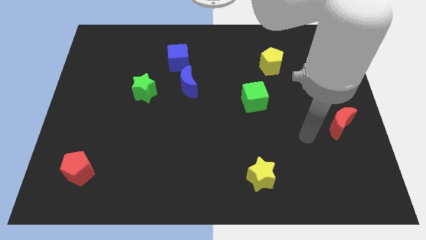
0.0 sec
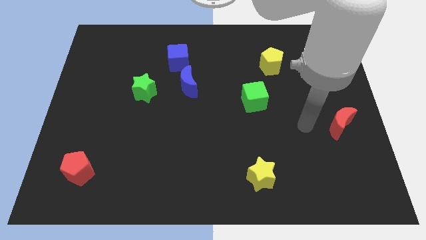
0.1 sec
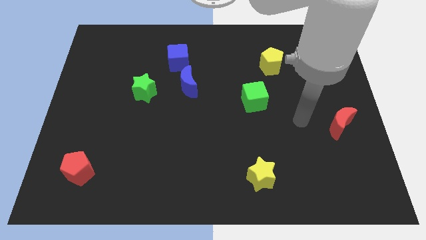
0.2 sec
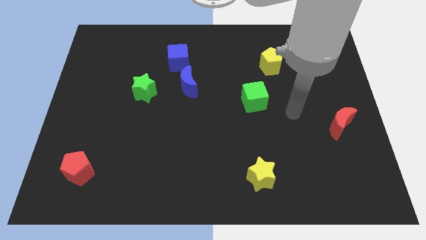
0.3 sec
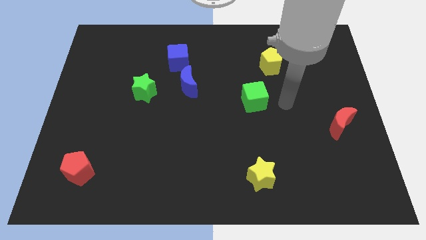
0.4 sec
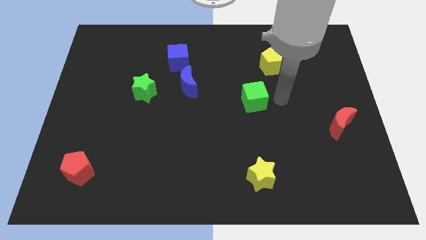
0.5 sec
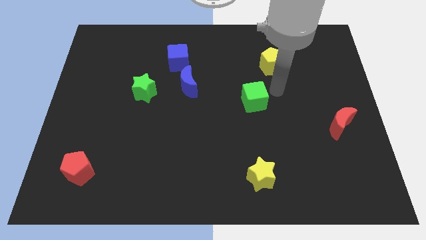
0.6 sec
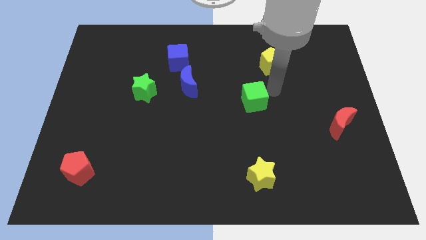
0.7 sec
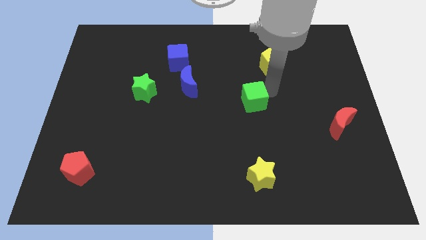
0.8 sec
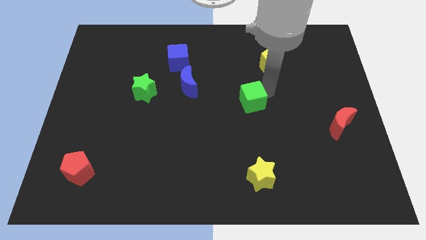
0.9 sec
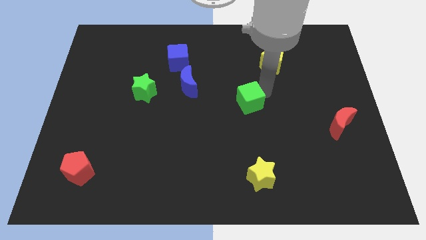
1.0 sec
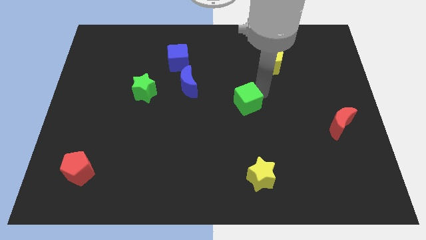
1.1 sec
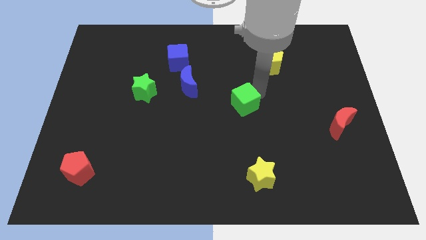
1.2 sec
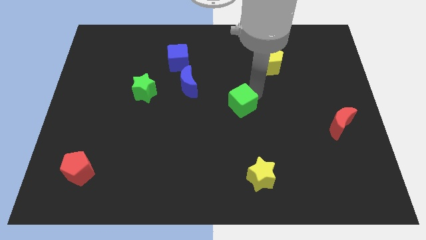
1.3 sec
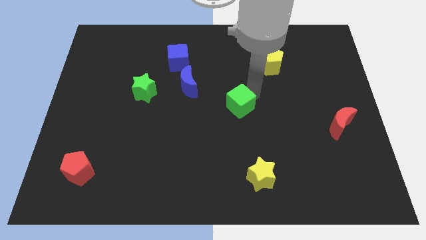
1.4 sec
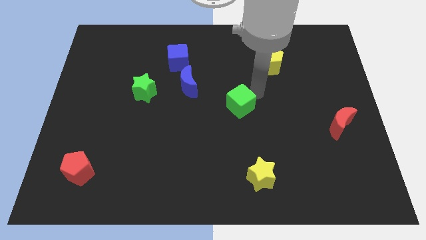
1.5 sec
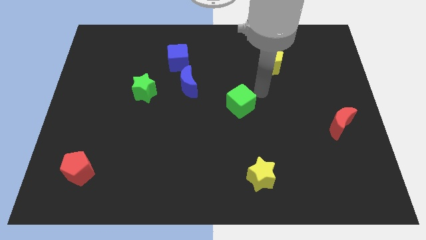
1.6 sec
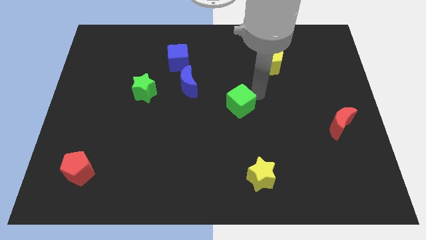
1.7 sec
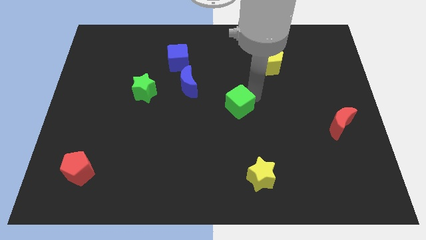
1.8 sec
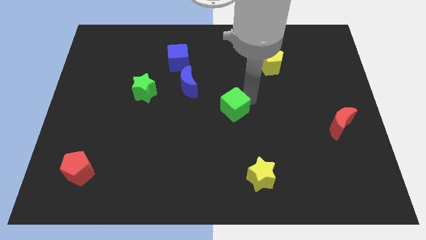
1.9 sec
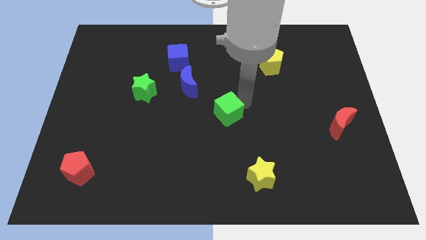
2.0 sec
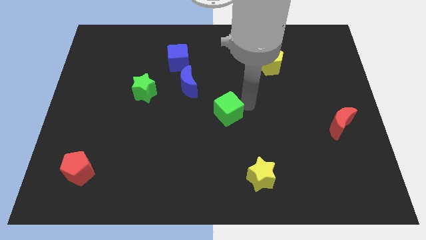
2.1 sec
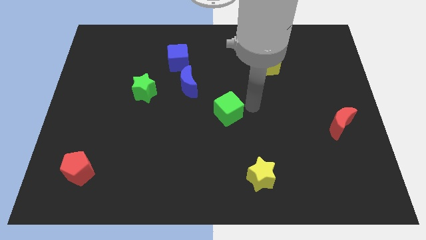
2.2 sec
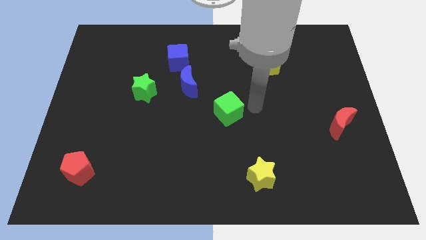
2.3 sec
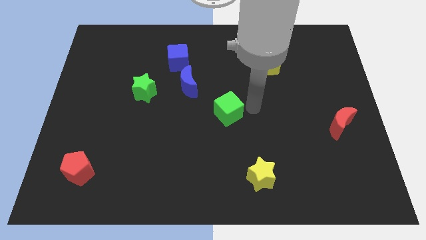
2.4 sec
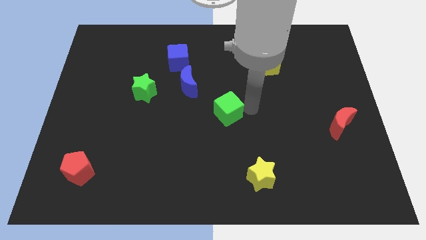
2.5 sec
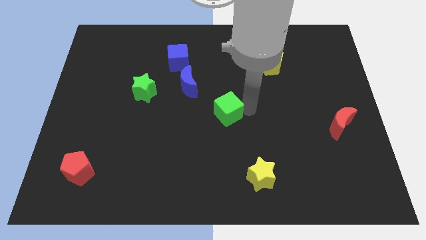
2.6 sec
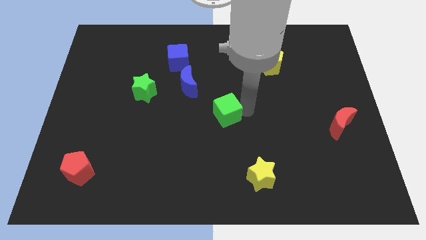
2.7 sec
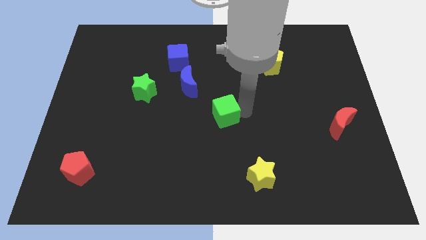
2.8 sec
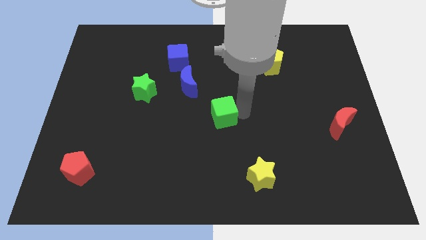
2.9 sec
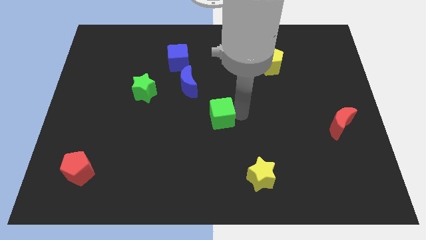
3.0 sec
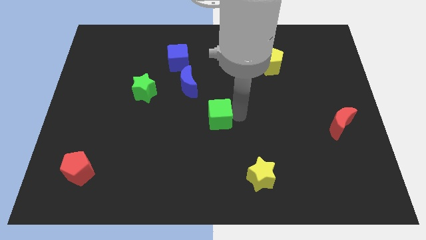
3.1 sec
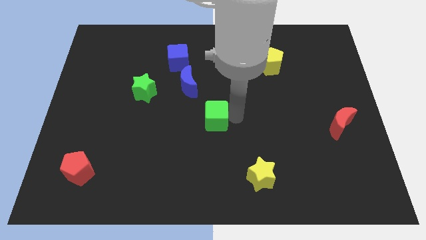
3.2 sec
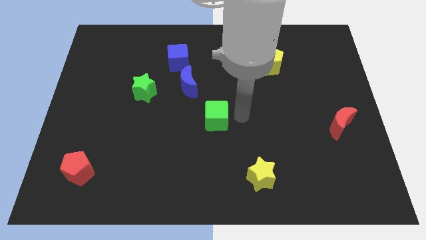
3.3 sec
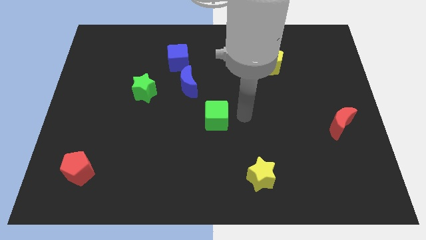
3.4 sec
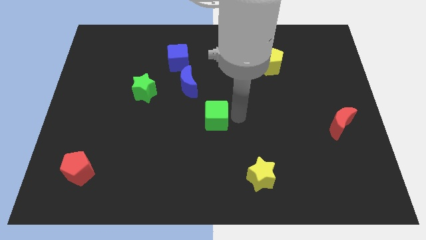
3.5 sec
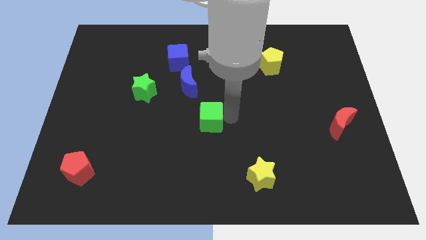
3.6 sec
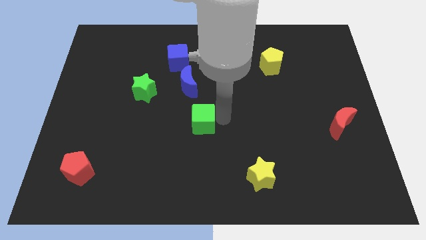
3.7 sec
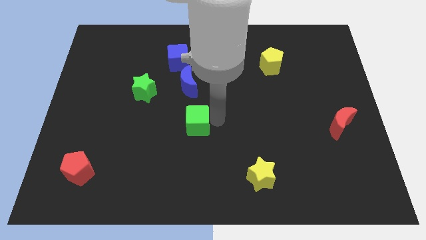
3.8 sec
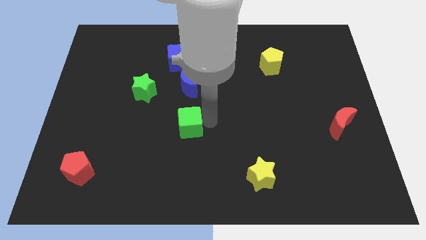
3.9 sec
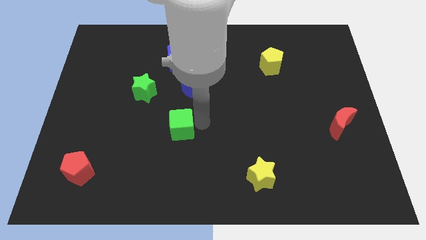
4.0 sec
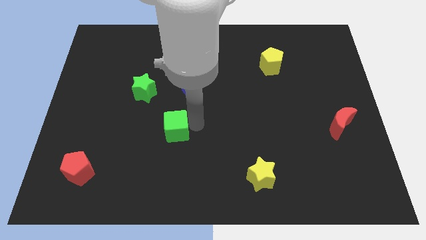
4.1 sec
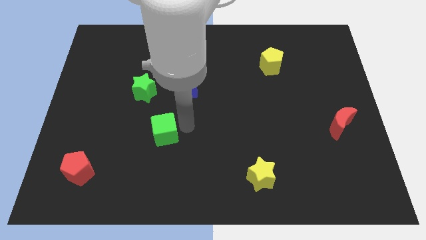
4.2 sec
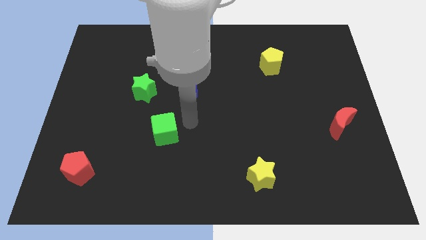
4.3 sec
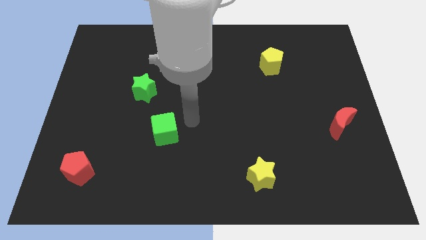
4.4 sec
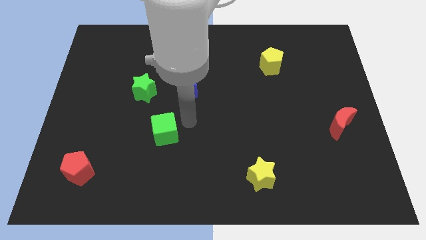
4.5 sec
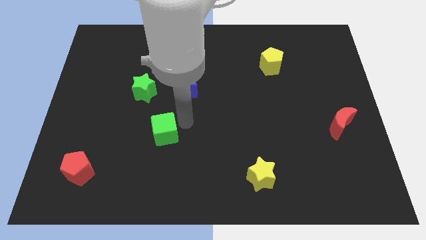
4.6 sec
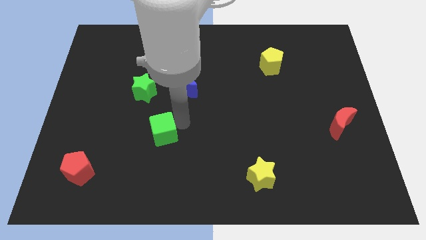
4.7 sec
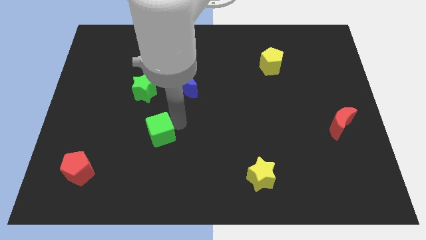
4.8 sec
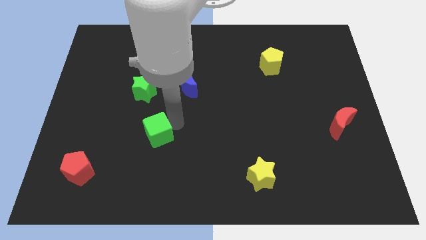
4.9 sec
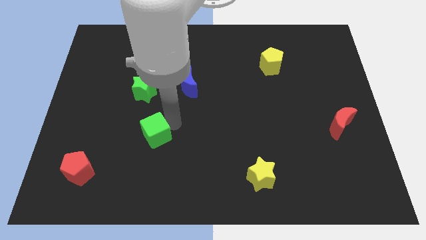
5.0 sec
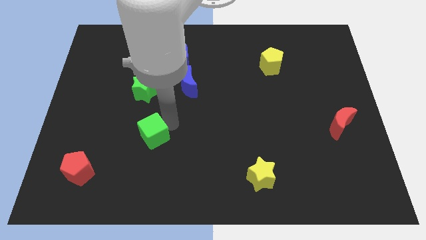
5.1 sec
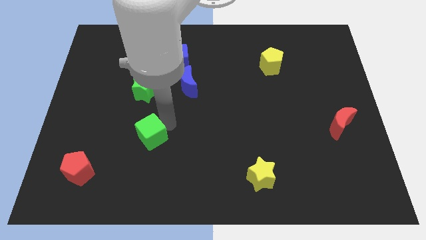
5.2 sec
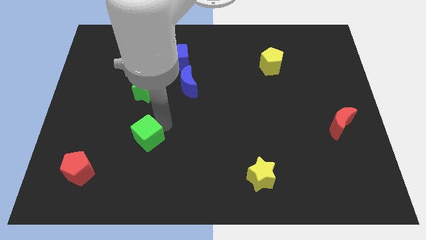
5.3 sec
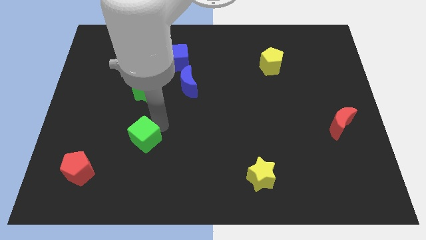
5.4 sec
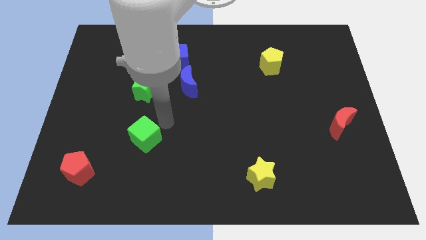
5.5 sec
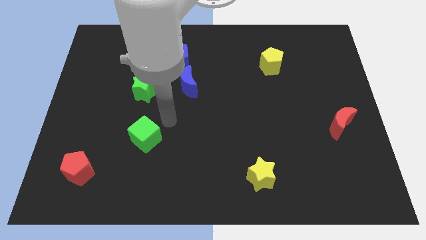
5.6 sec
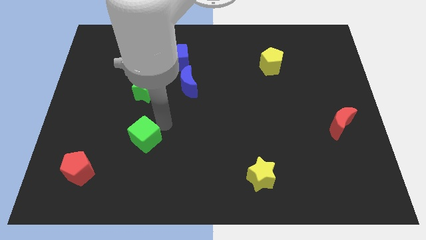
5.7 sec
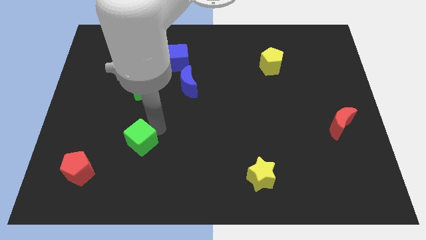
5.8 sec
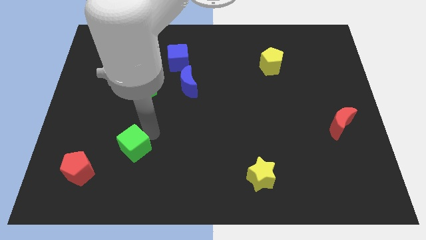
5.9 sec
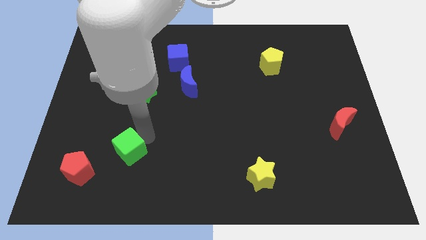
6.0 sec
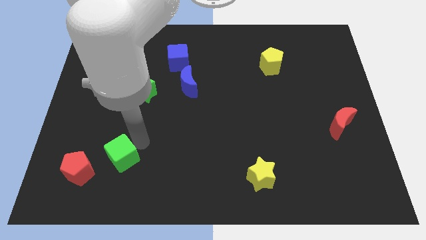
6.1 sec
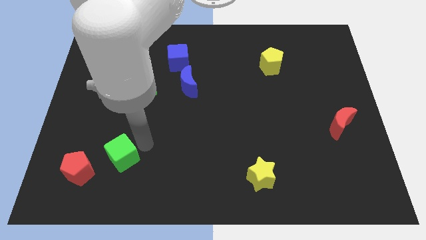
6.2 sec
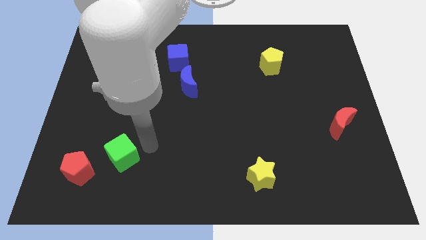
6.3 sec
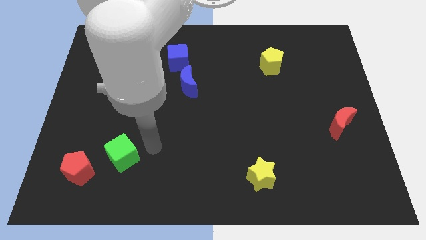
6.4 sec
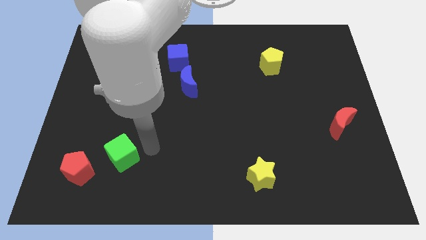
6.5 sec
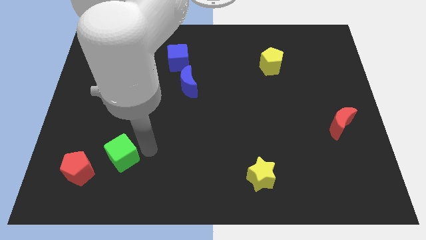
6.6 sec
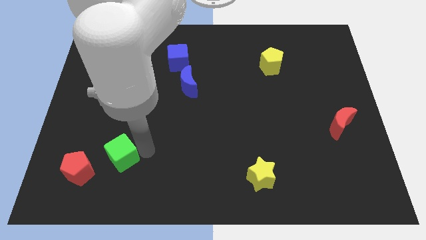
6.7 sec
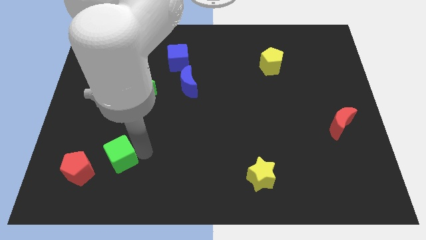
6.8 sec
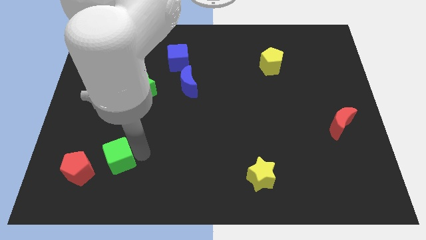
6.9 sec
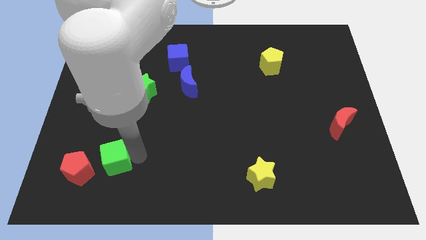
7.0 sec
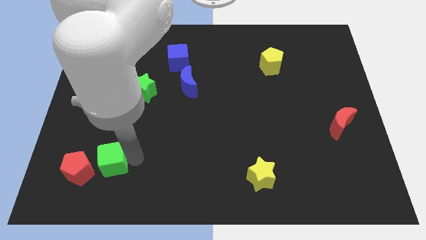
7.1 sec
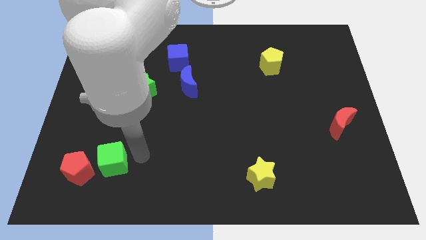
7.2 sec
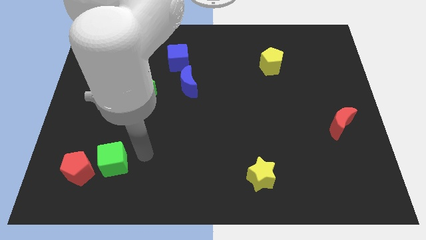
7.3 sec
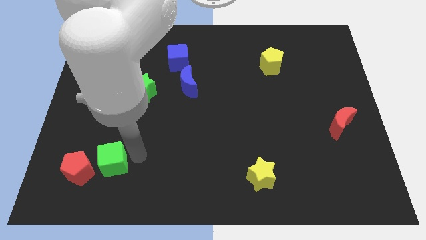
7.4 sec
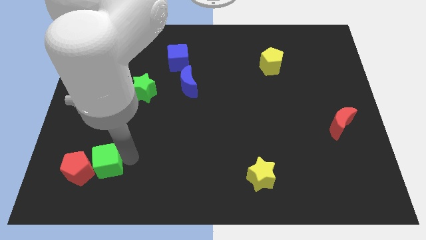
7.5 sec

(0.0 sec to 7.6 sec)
push the green cube next to the red pentagon

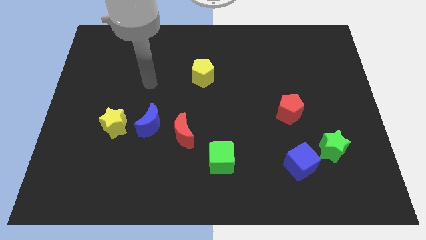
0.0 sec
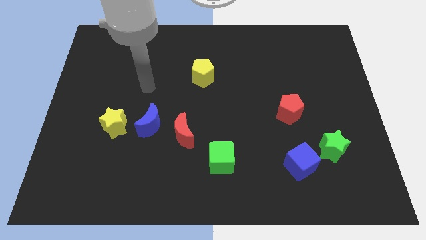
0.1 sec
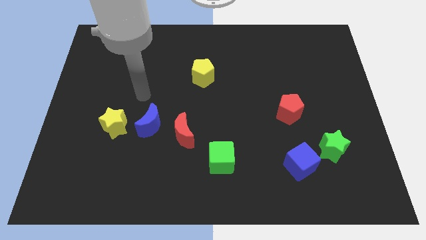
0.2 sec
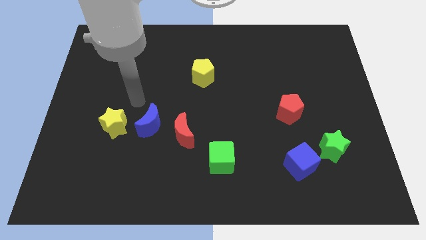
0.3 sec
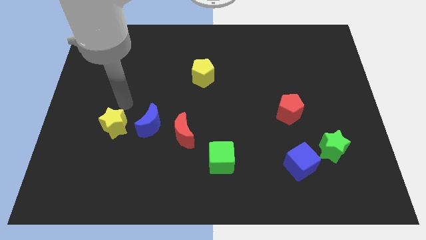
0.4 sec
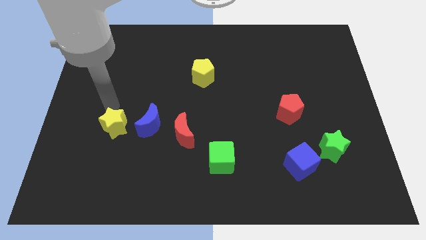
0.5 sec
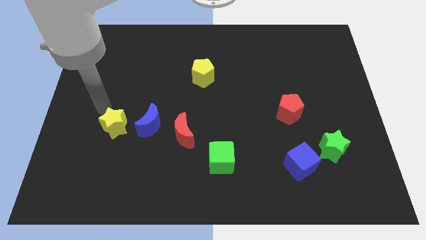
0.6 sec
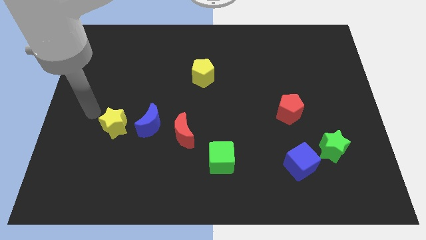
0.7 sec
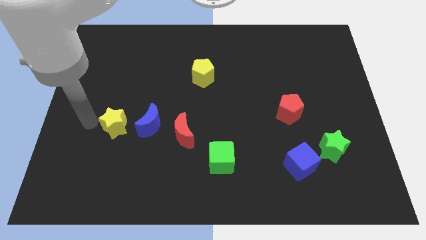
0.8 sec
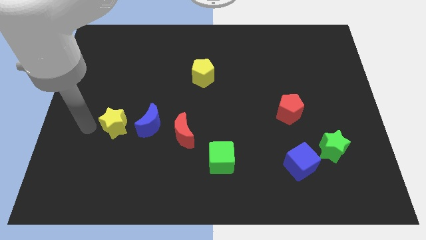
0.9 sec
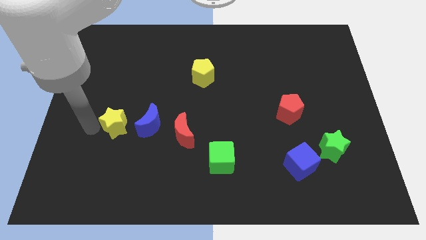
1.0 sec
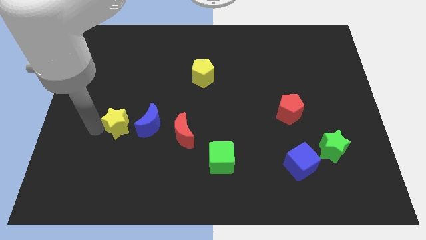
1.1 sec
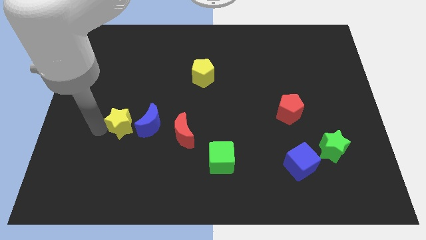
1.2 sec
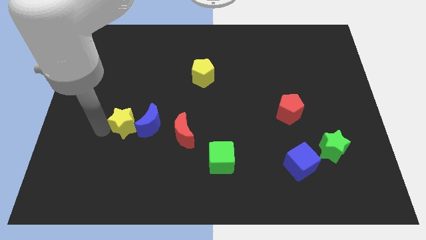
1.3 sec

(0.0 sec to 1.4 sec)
push the yellow star close to the blue moon
